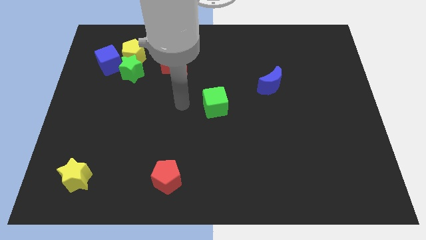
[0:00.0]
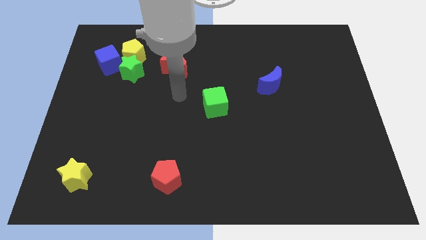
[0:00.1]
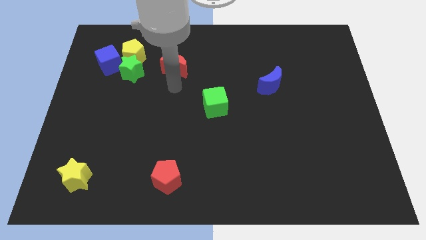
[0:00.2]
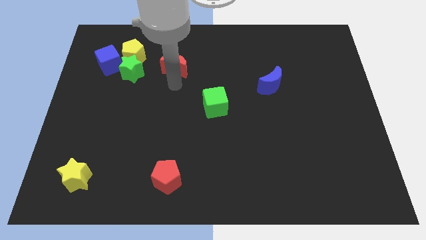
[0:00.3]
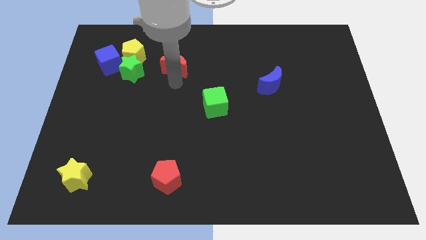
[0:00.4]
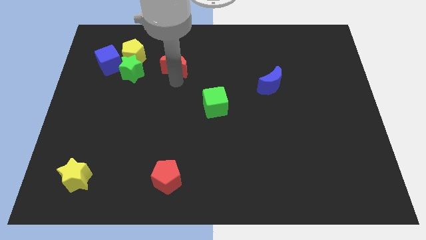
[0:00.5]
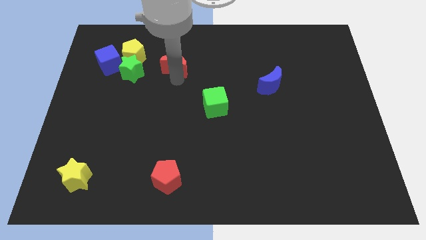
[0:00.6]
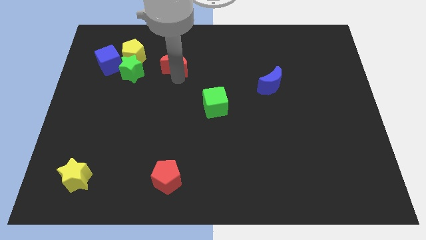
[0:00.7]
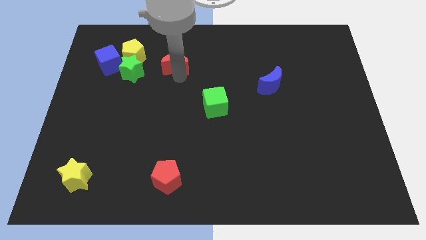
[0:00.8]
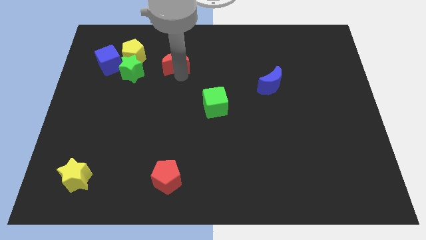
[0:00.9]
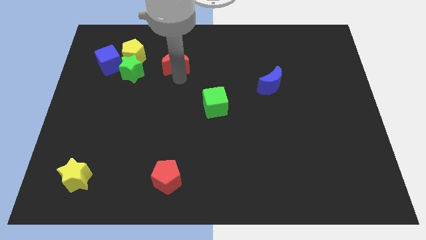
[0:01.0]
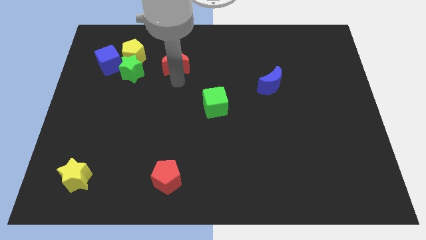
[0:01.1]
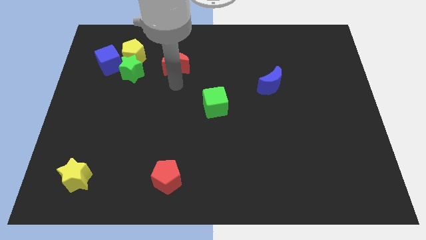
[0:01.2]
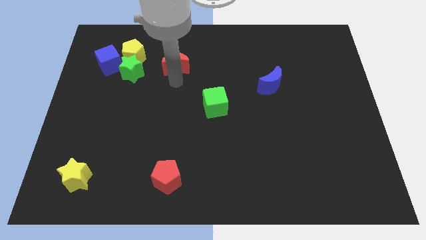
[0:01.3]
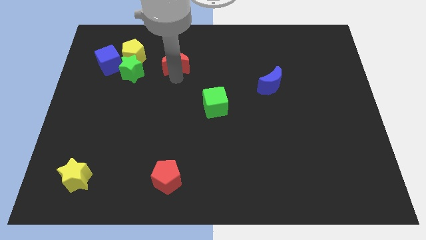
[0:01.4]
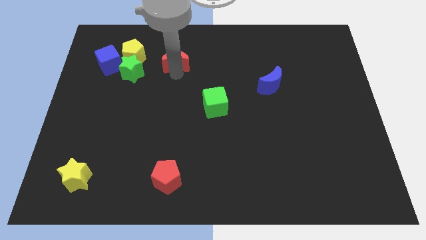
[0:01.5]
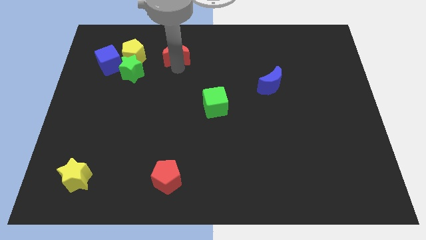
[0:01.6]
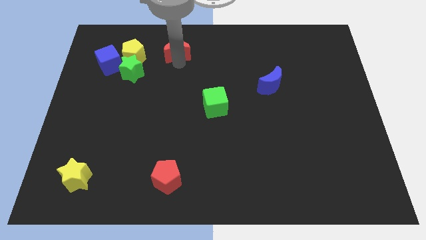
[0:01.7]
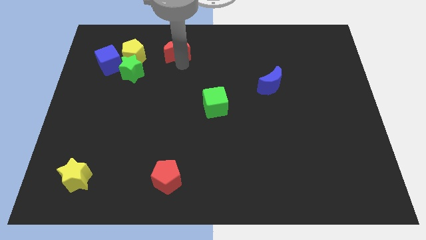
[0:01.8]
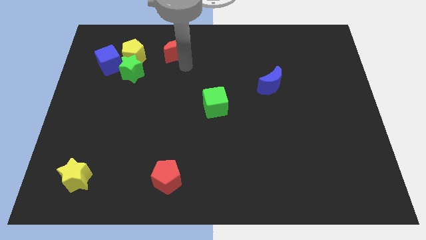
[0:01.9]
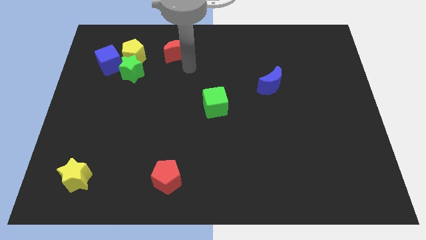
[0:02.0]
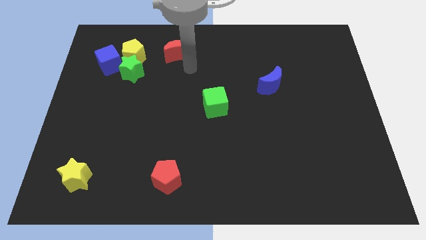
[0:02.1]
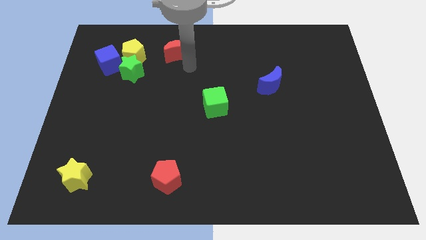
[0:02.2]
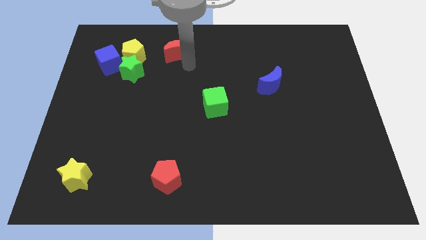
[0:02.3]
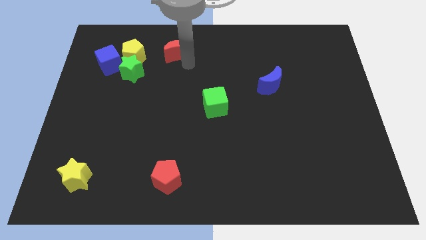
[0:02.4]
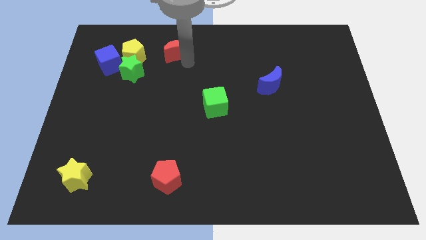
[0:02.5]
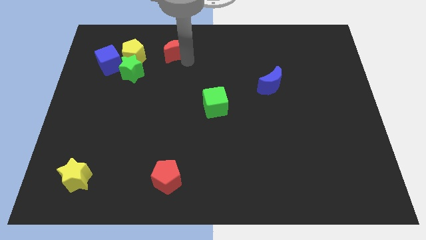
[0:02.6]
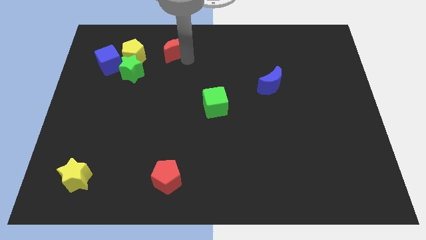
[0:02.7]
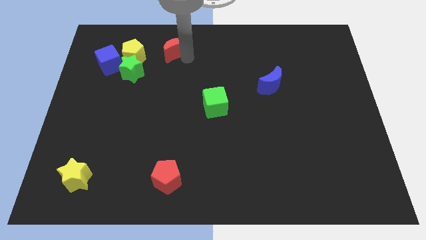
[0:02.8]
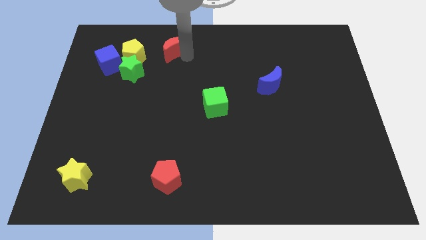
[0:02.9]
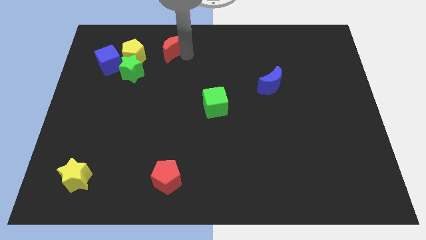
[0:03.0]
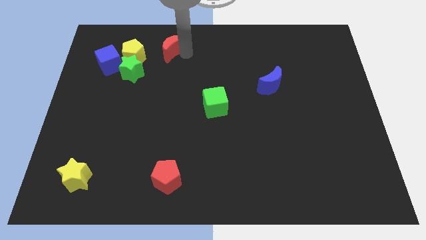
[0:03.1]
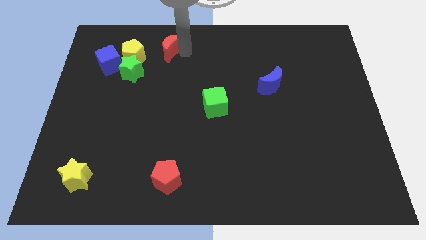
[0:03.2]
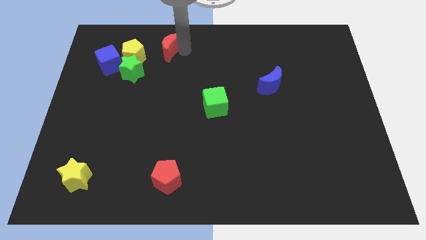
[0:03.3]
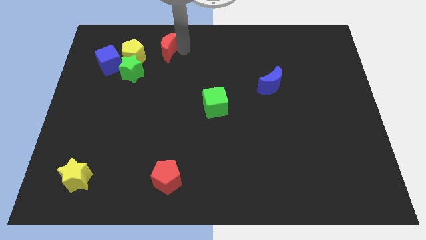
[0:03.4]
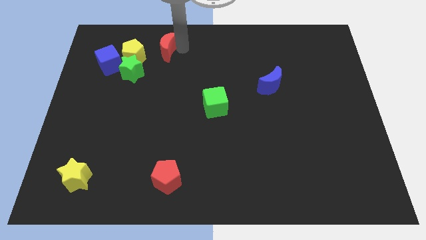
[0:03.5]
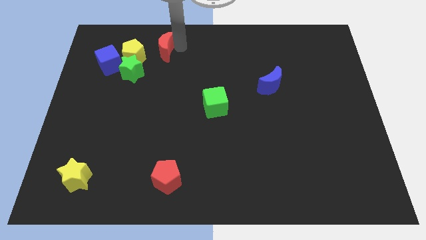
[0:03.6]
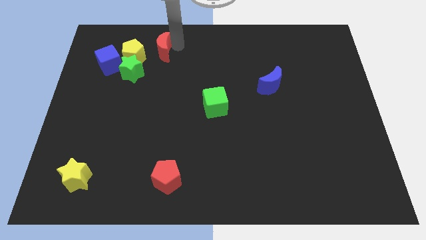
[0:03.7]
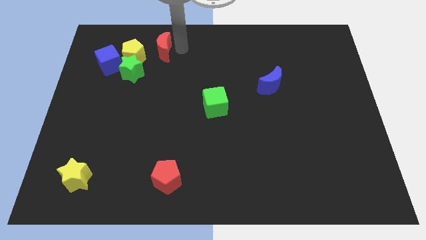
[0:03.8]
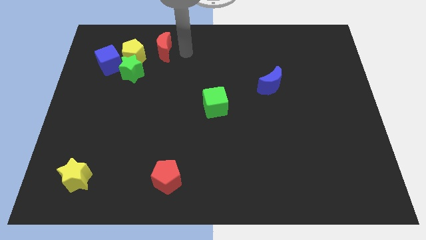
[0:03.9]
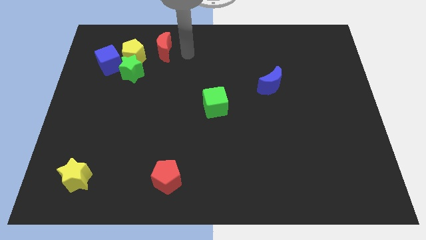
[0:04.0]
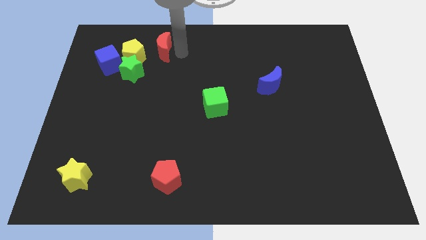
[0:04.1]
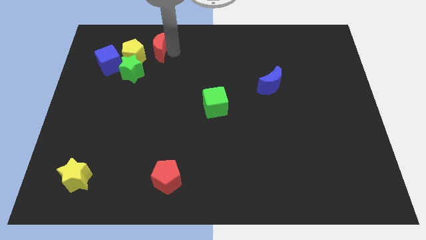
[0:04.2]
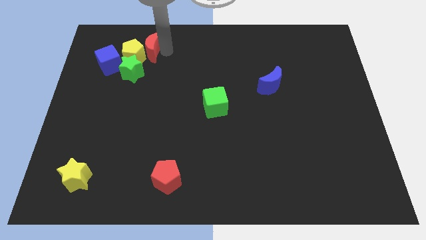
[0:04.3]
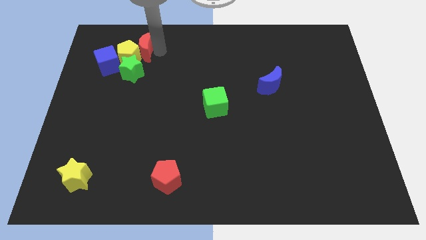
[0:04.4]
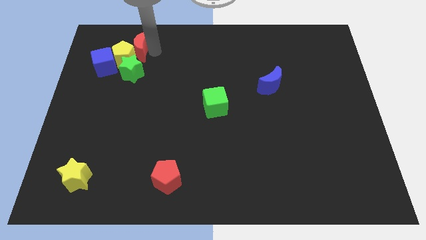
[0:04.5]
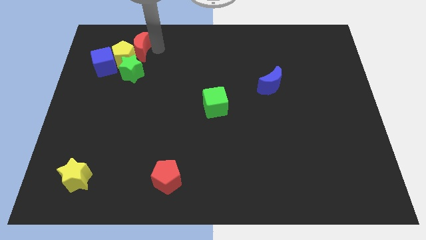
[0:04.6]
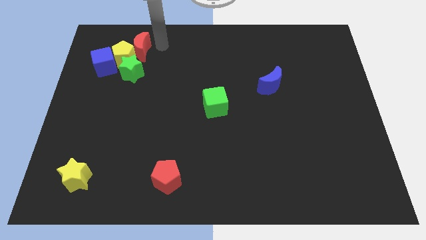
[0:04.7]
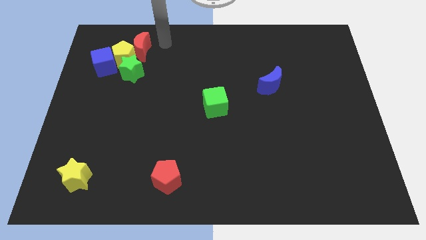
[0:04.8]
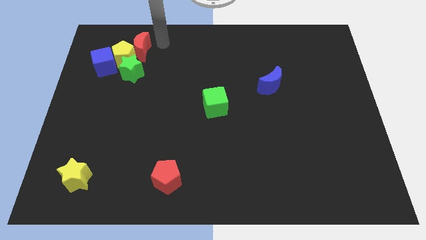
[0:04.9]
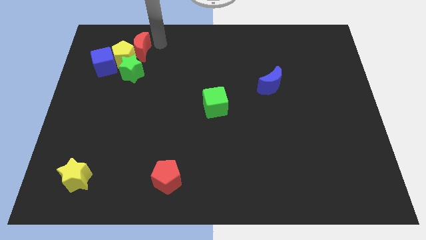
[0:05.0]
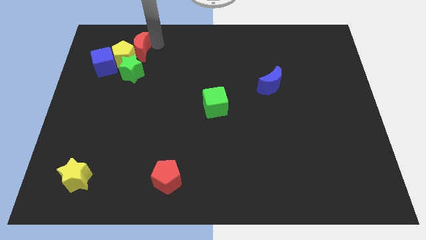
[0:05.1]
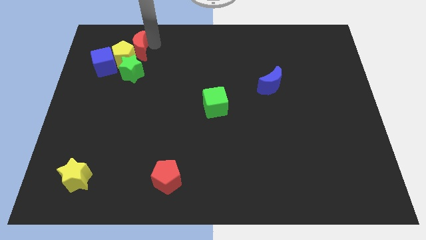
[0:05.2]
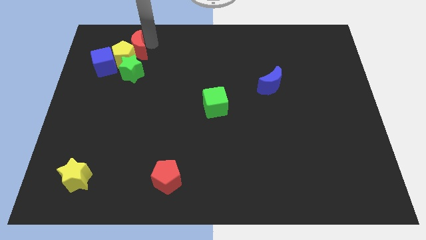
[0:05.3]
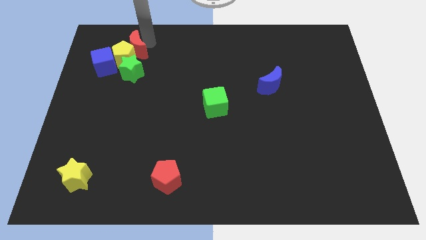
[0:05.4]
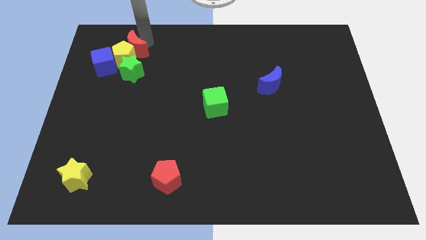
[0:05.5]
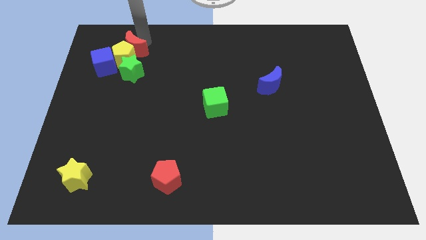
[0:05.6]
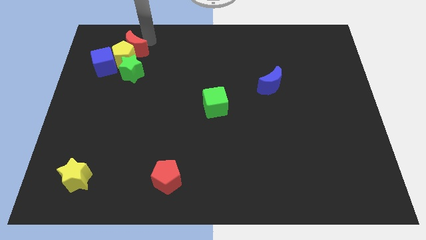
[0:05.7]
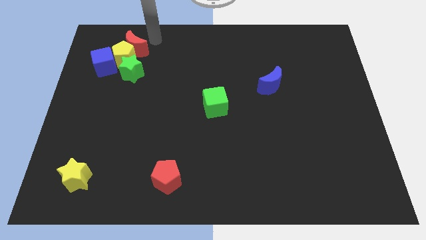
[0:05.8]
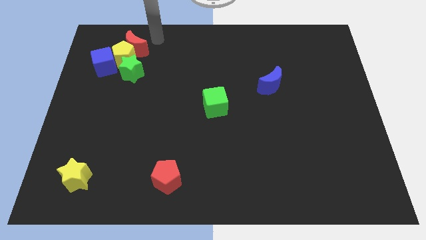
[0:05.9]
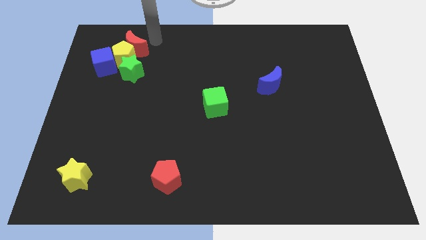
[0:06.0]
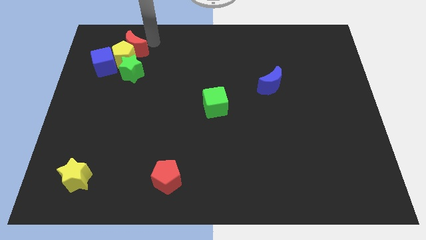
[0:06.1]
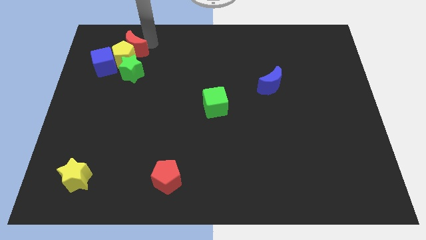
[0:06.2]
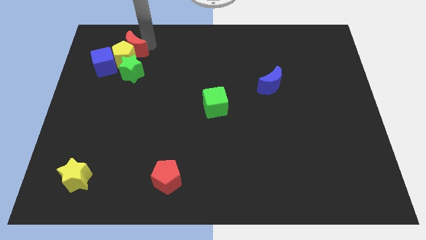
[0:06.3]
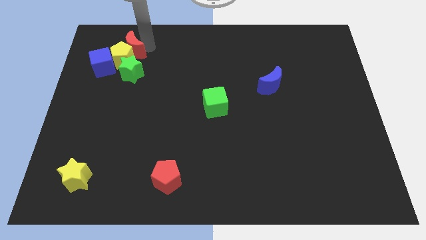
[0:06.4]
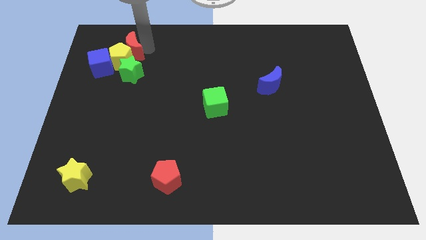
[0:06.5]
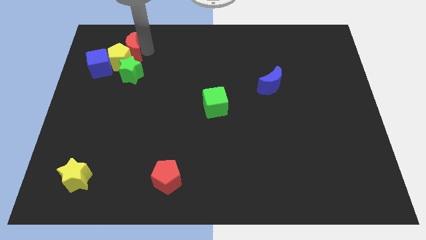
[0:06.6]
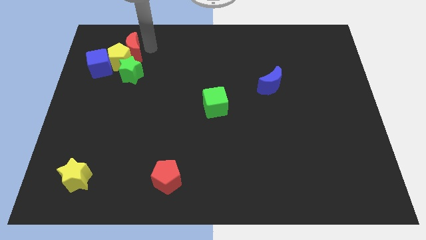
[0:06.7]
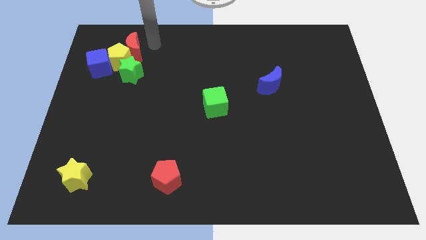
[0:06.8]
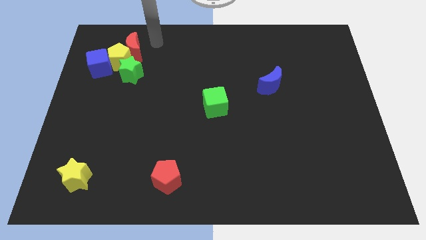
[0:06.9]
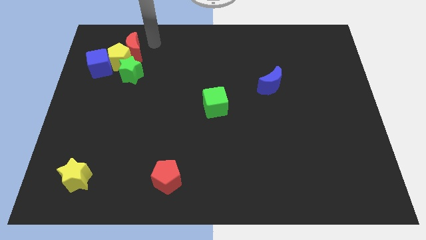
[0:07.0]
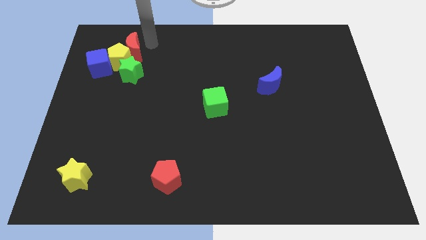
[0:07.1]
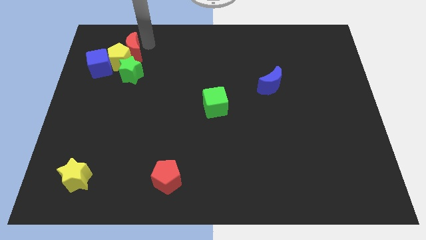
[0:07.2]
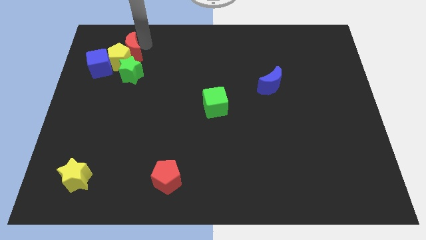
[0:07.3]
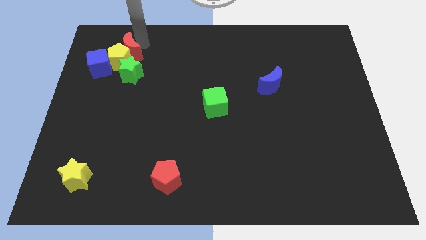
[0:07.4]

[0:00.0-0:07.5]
slide the red moon to the top left of the green star

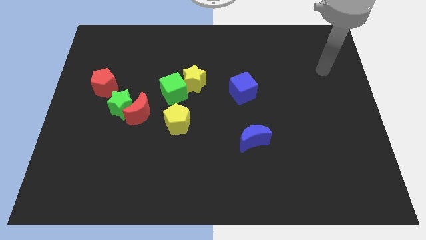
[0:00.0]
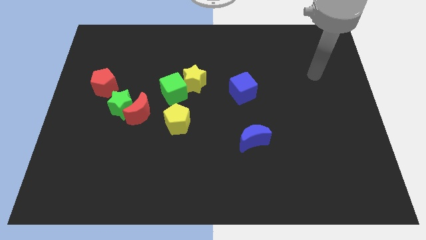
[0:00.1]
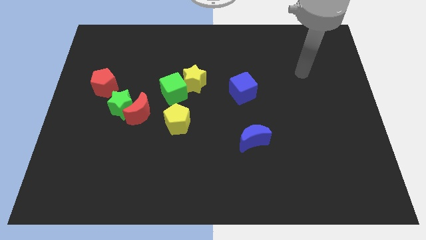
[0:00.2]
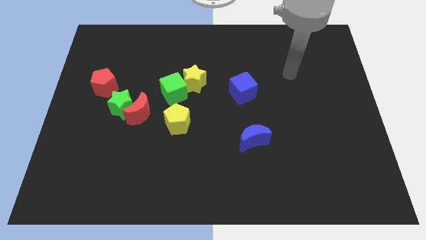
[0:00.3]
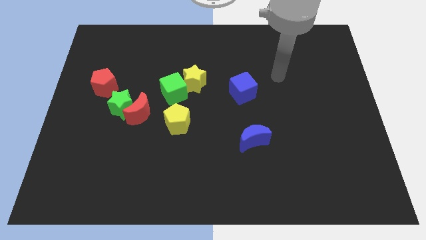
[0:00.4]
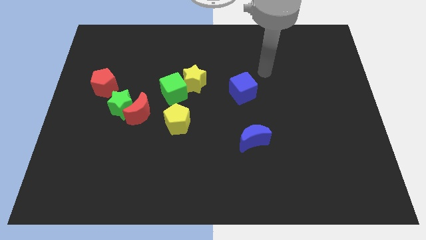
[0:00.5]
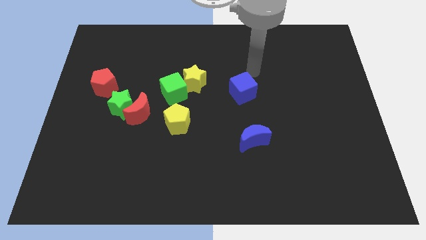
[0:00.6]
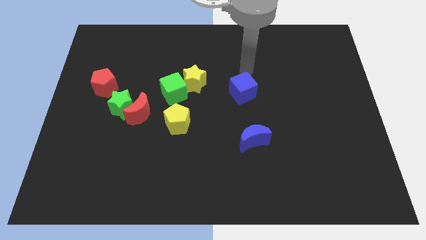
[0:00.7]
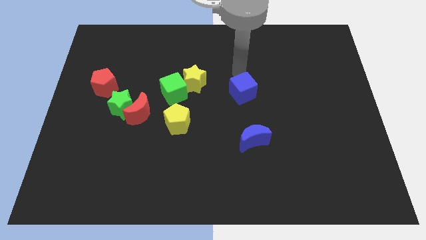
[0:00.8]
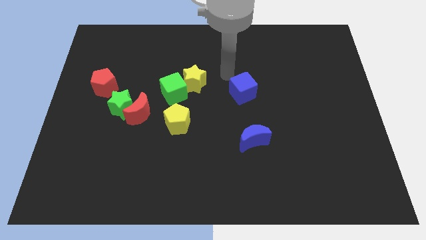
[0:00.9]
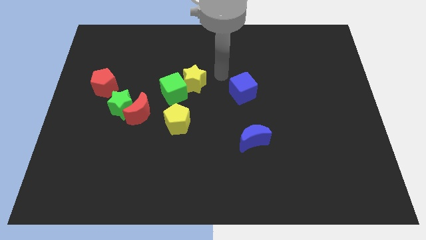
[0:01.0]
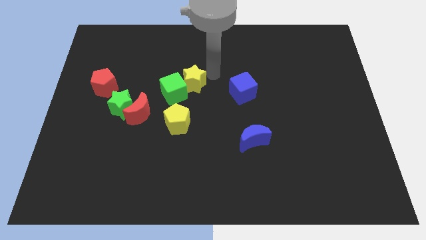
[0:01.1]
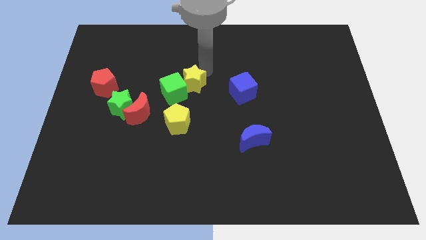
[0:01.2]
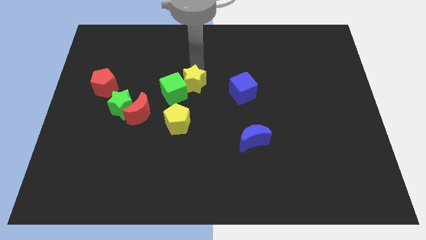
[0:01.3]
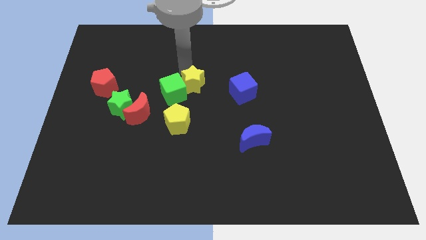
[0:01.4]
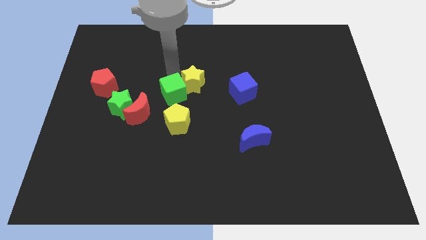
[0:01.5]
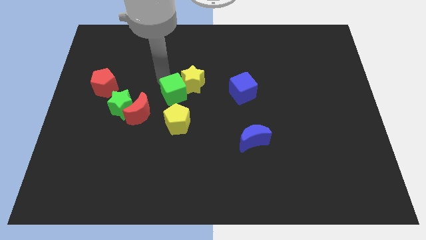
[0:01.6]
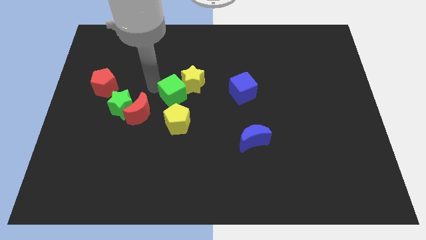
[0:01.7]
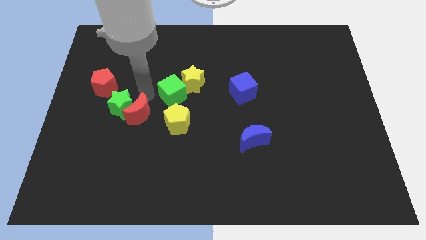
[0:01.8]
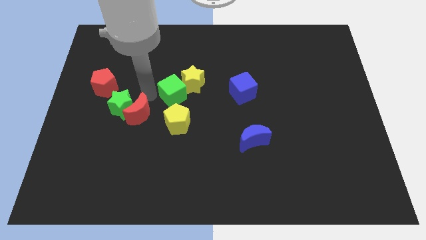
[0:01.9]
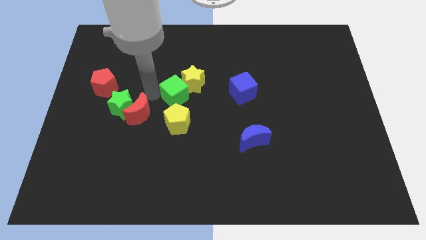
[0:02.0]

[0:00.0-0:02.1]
put the green cube just left of the blue cube
